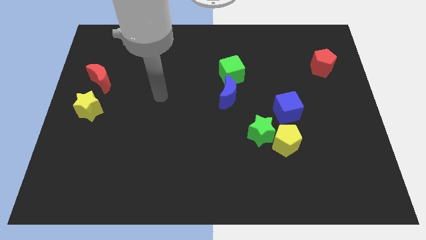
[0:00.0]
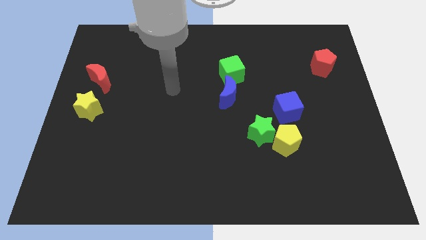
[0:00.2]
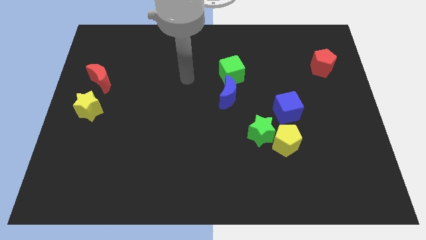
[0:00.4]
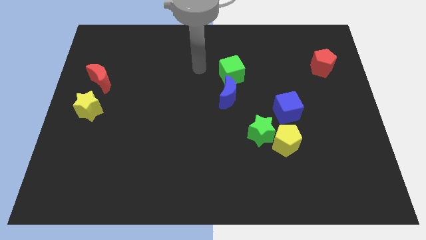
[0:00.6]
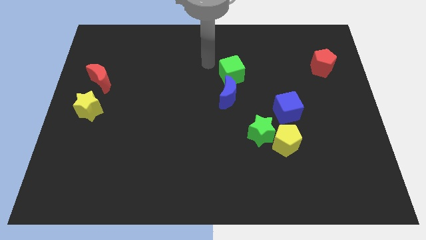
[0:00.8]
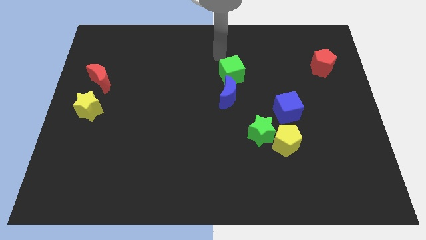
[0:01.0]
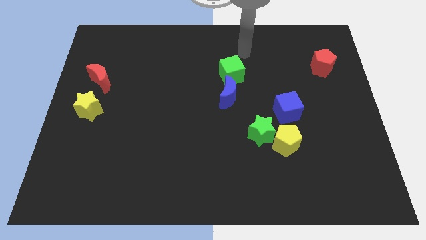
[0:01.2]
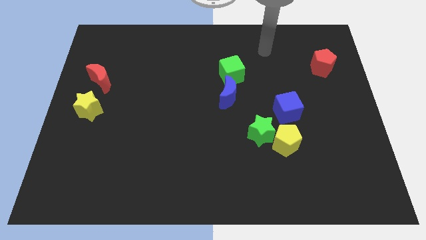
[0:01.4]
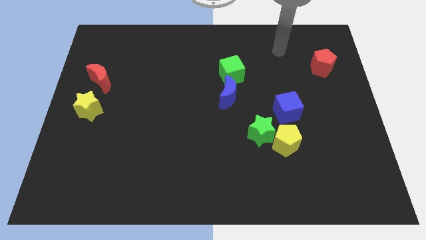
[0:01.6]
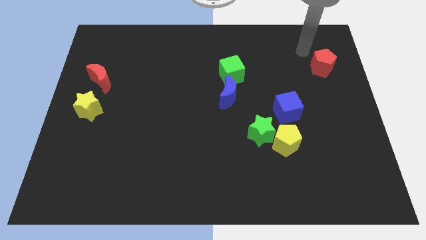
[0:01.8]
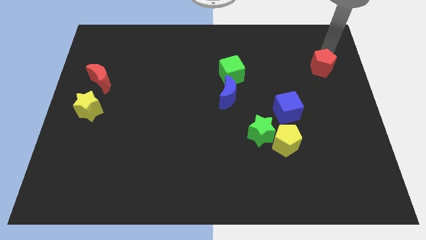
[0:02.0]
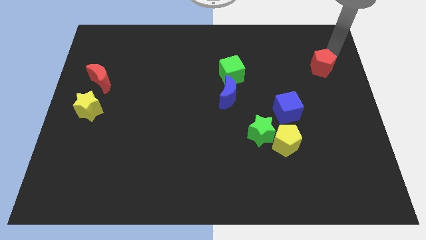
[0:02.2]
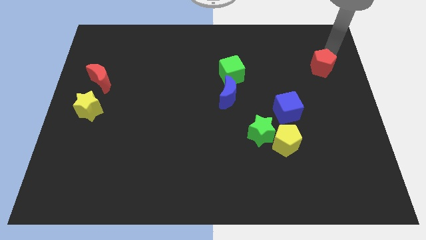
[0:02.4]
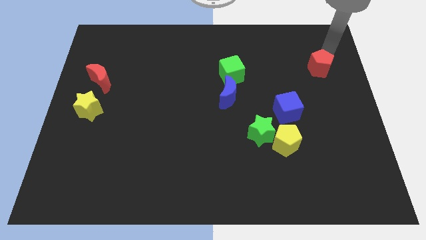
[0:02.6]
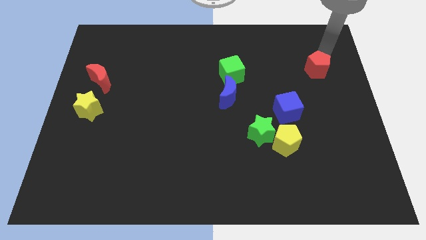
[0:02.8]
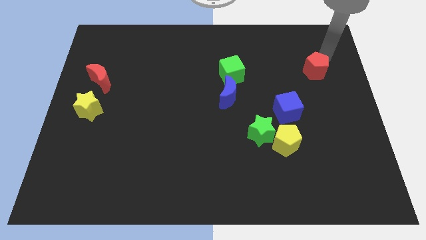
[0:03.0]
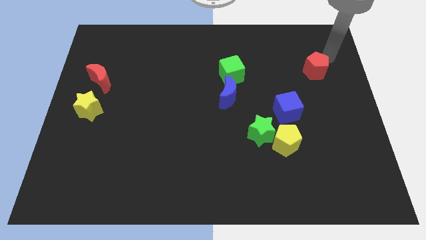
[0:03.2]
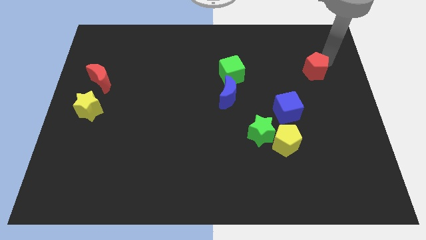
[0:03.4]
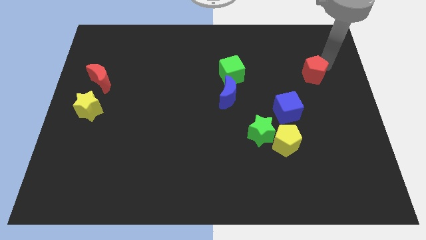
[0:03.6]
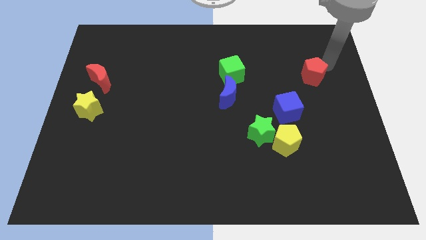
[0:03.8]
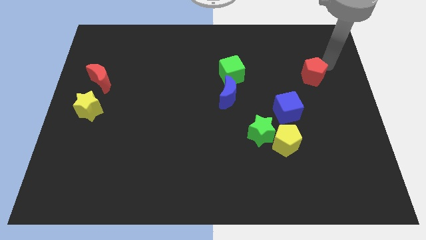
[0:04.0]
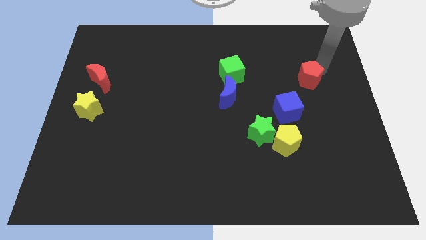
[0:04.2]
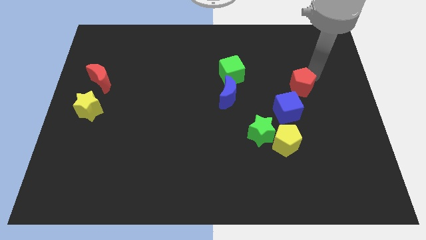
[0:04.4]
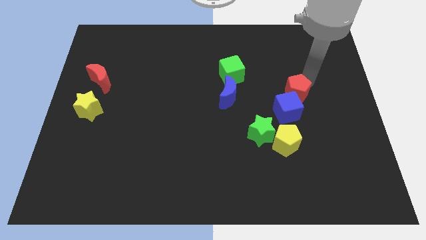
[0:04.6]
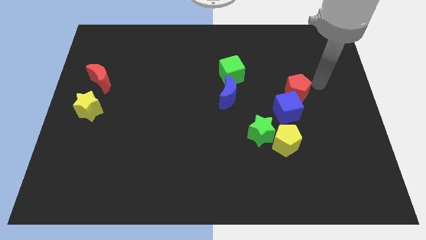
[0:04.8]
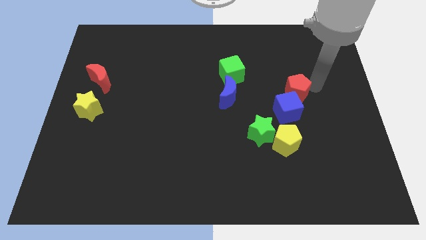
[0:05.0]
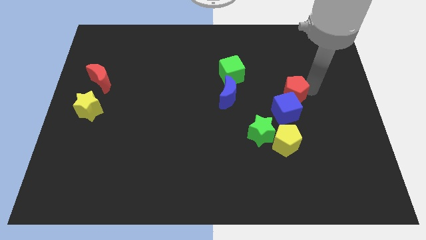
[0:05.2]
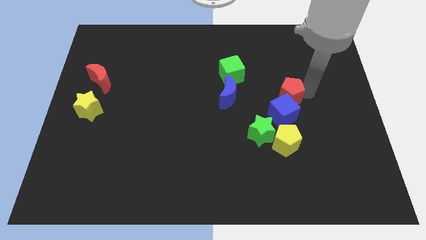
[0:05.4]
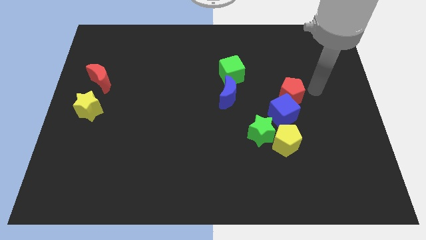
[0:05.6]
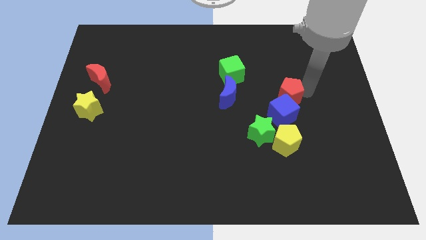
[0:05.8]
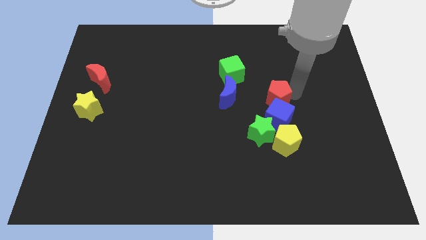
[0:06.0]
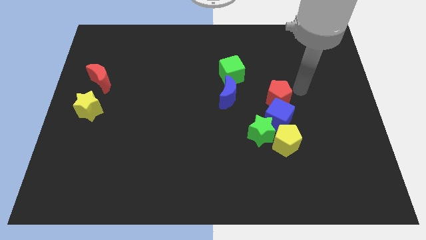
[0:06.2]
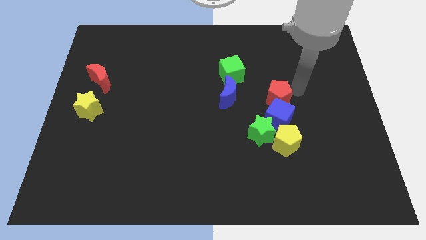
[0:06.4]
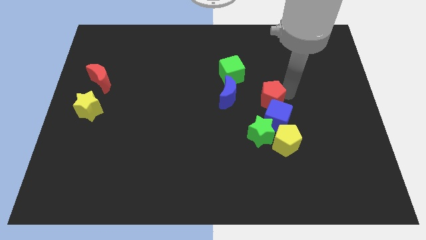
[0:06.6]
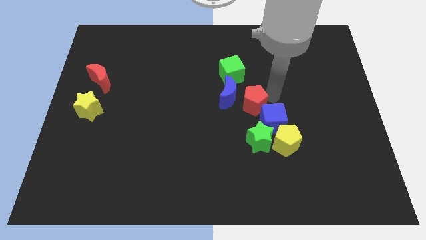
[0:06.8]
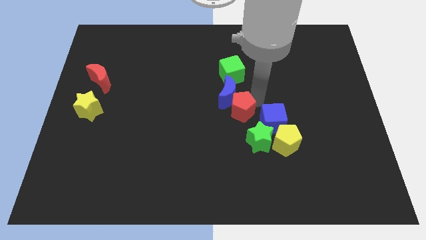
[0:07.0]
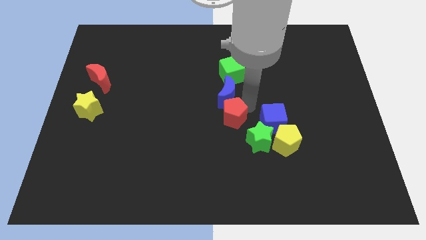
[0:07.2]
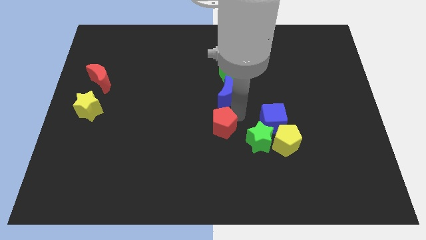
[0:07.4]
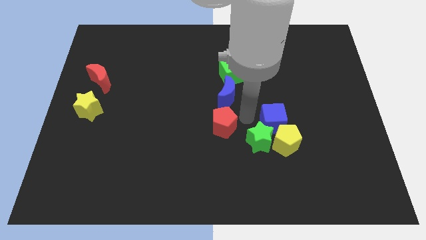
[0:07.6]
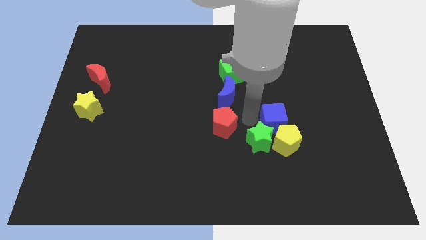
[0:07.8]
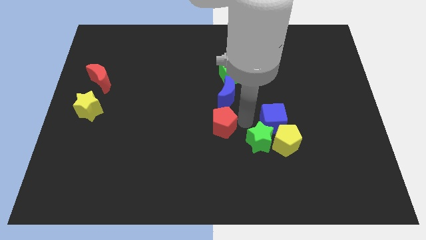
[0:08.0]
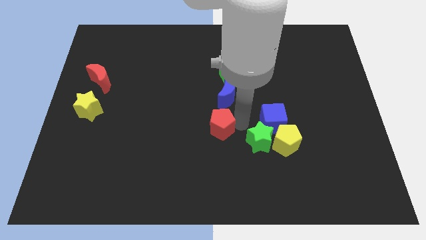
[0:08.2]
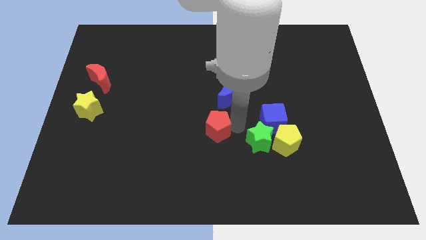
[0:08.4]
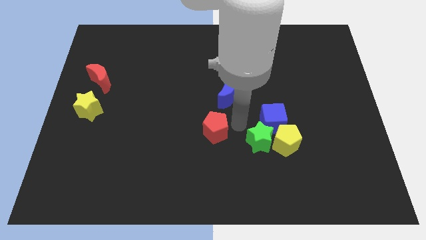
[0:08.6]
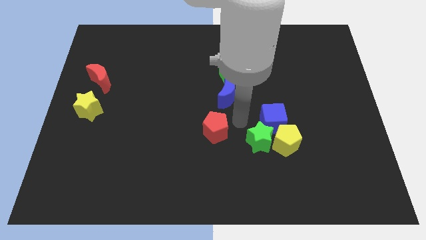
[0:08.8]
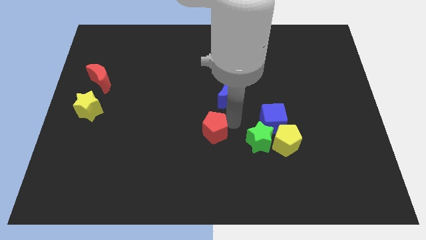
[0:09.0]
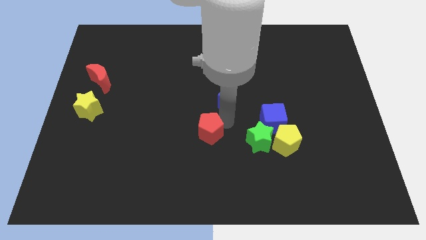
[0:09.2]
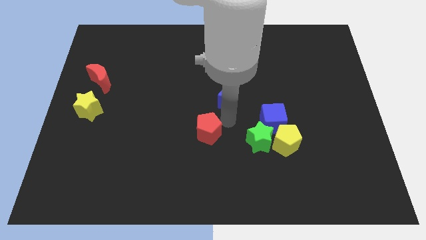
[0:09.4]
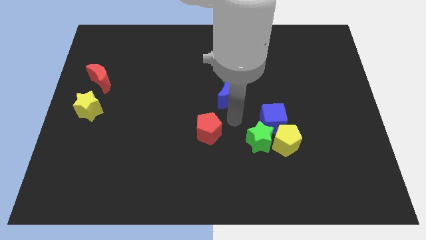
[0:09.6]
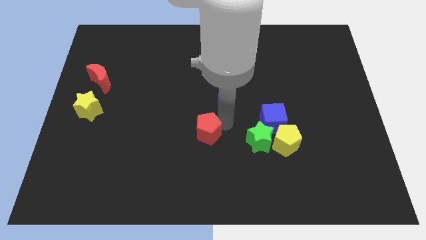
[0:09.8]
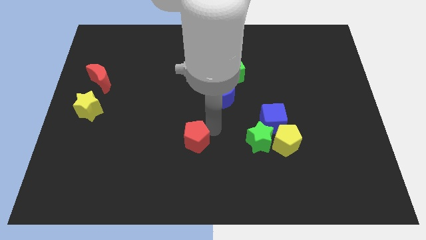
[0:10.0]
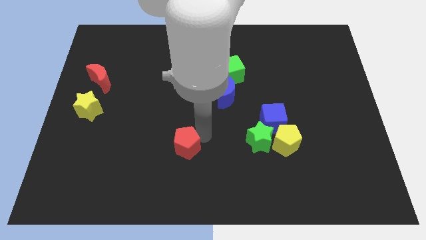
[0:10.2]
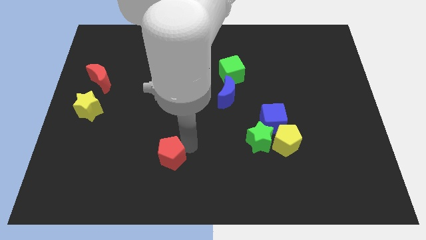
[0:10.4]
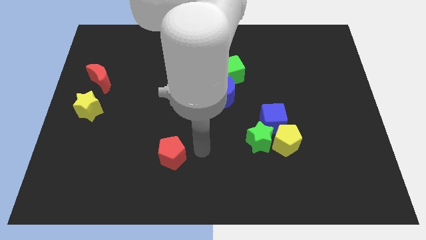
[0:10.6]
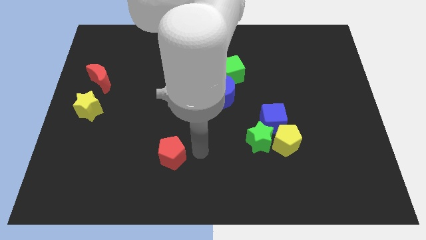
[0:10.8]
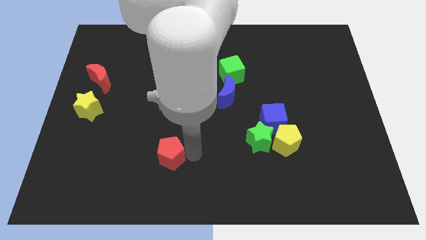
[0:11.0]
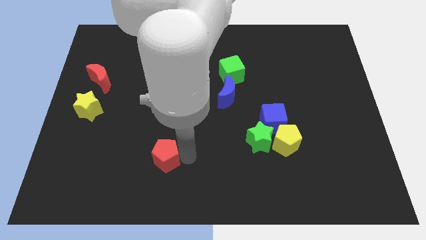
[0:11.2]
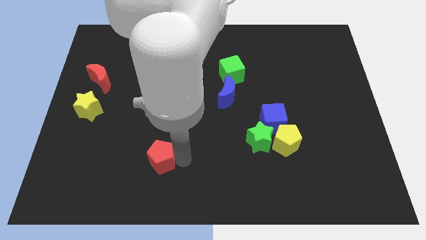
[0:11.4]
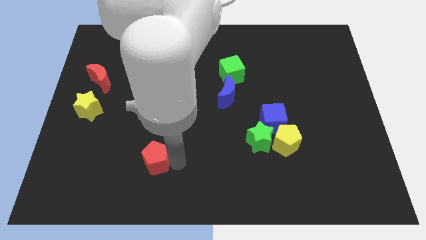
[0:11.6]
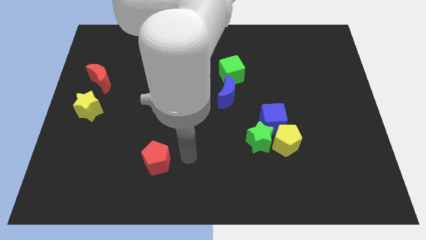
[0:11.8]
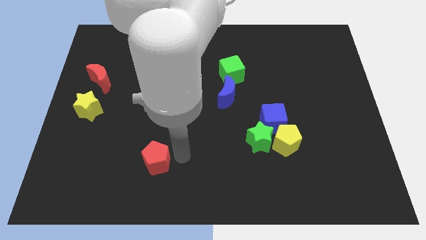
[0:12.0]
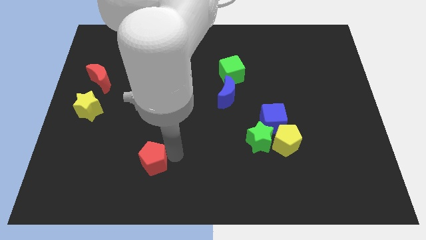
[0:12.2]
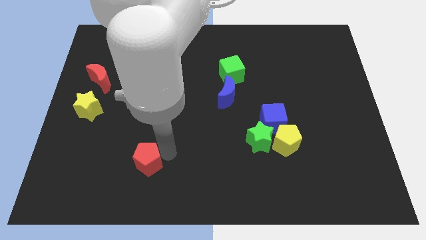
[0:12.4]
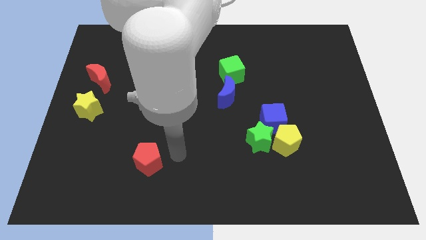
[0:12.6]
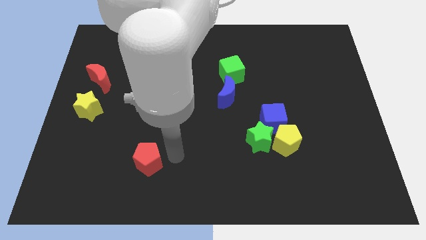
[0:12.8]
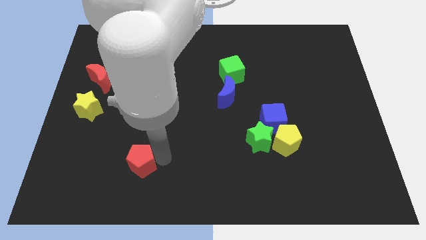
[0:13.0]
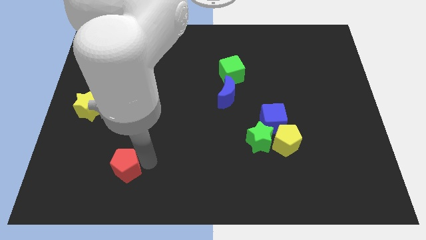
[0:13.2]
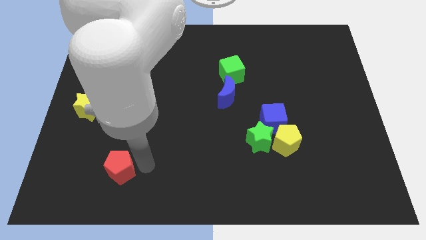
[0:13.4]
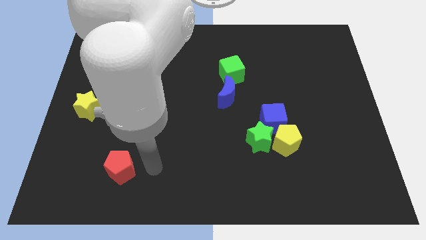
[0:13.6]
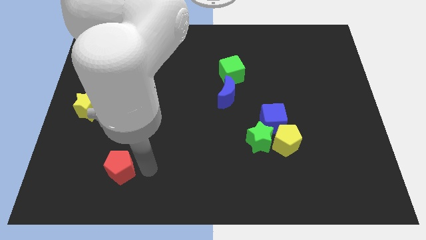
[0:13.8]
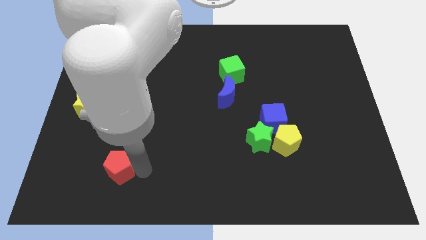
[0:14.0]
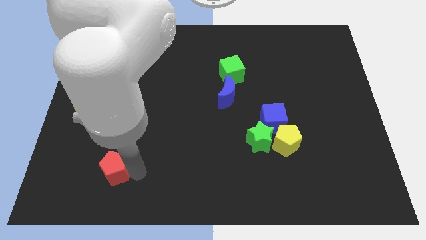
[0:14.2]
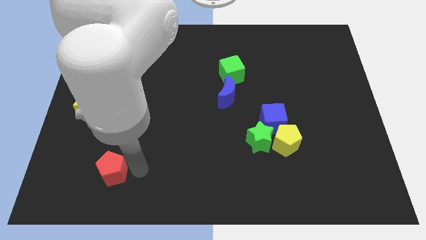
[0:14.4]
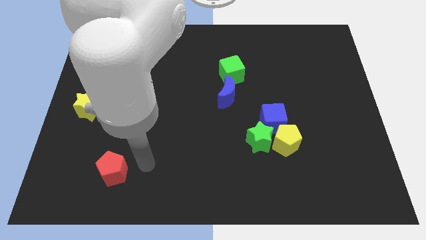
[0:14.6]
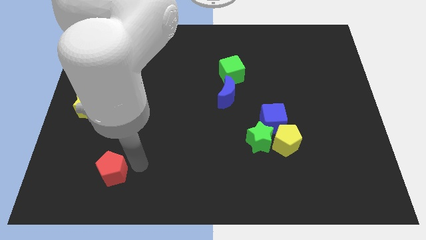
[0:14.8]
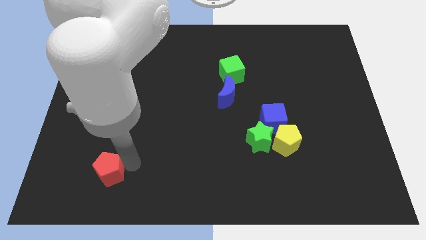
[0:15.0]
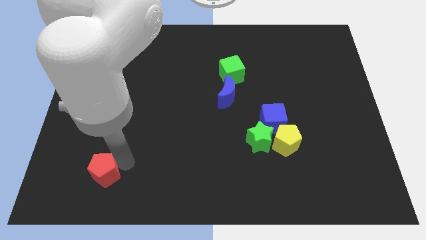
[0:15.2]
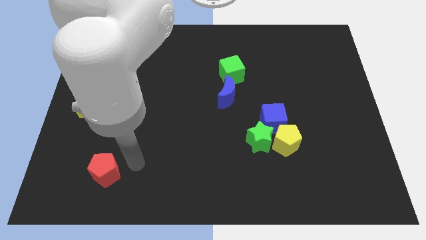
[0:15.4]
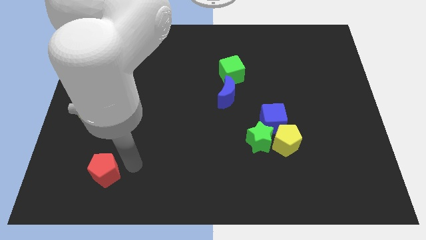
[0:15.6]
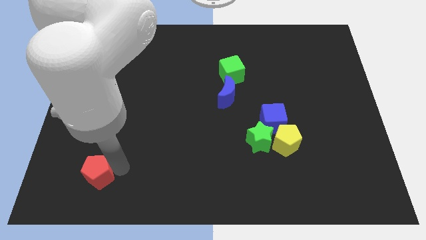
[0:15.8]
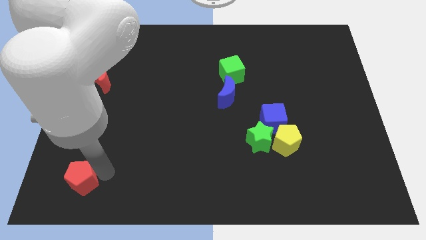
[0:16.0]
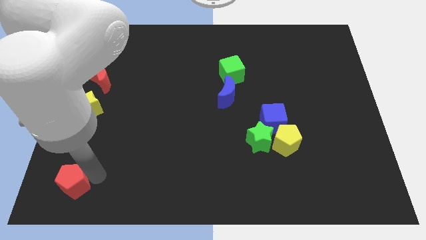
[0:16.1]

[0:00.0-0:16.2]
move the red pentagon to the bottom left of the board
